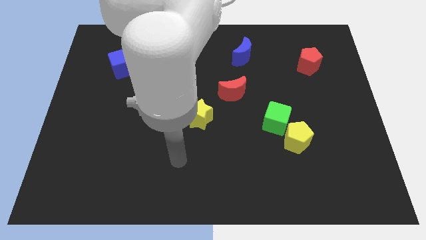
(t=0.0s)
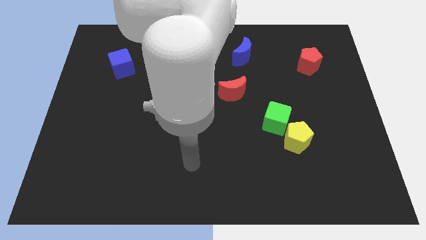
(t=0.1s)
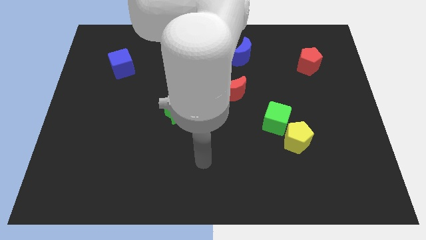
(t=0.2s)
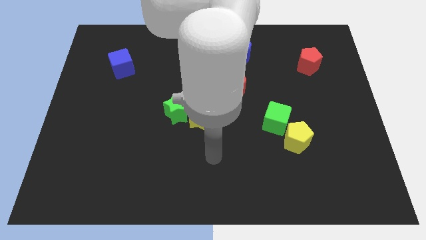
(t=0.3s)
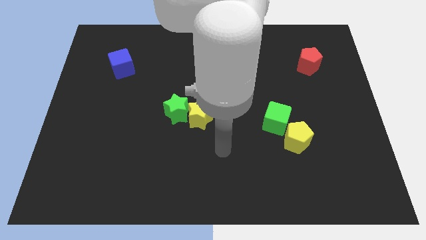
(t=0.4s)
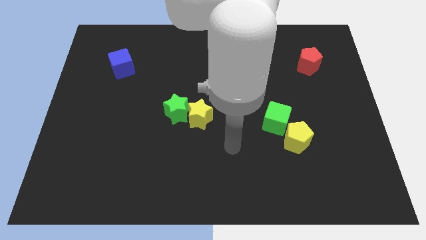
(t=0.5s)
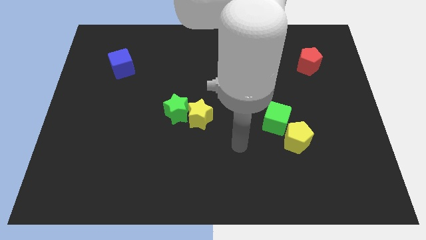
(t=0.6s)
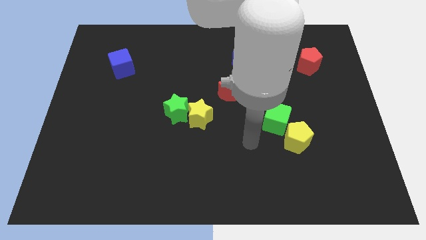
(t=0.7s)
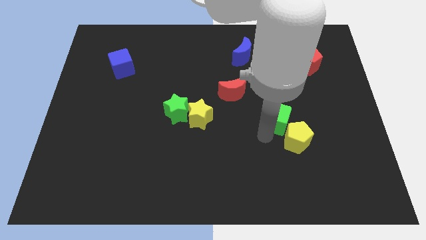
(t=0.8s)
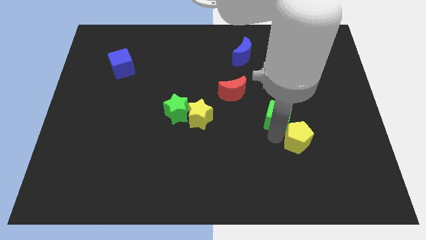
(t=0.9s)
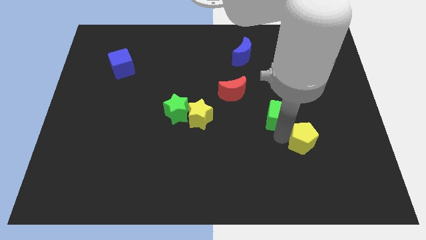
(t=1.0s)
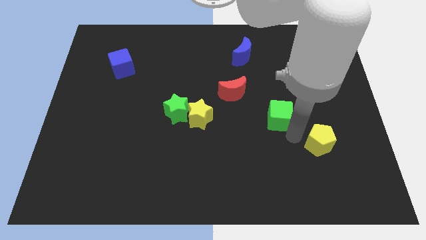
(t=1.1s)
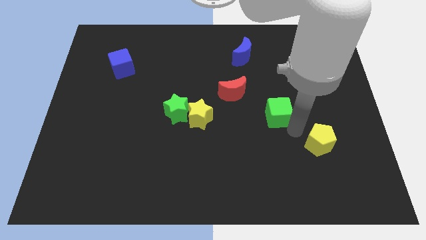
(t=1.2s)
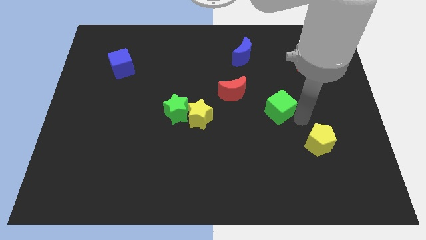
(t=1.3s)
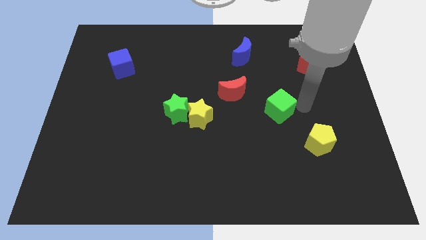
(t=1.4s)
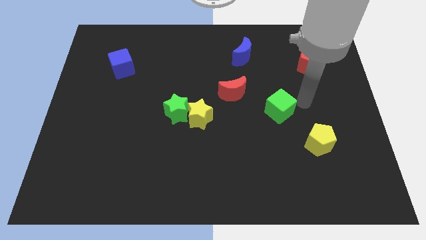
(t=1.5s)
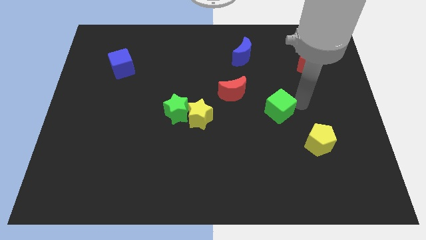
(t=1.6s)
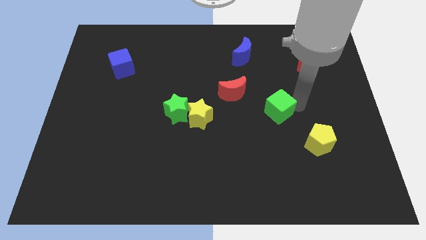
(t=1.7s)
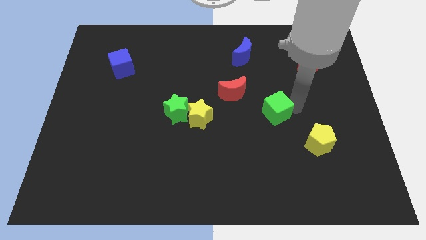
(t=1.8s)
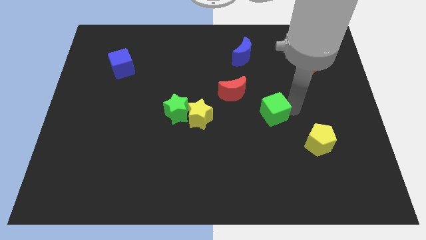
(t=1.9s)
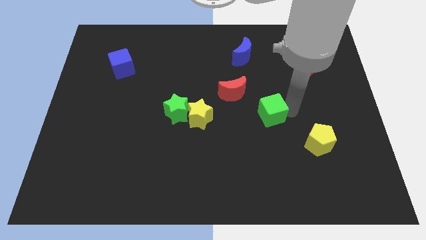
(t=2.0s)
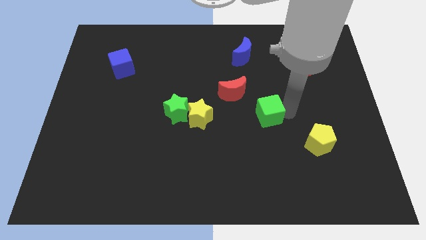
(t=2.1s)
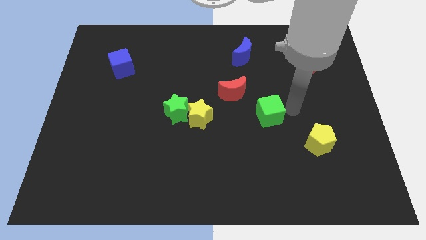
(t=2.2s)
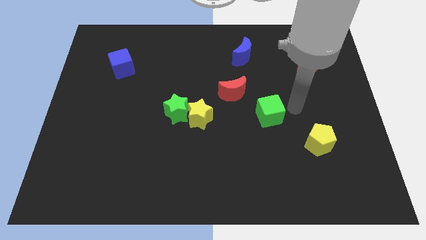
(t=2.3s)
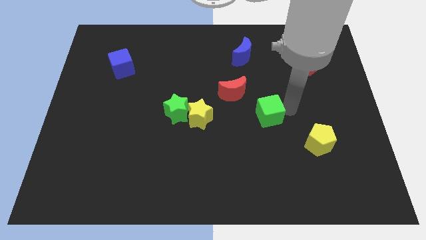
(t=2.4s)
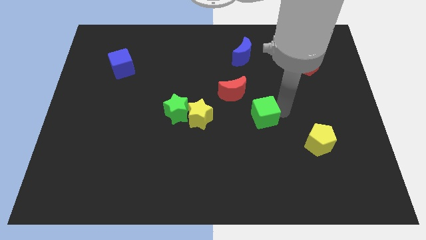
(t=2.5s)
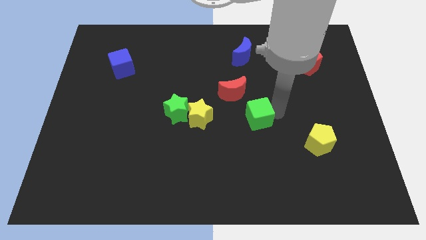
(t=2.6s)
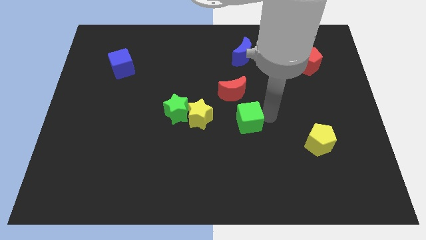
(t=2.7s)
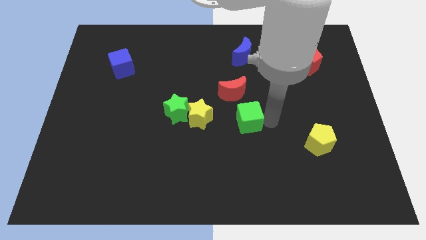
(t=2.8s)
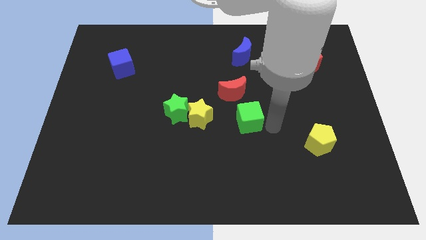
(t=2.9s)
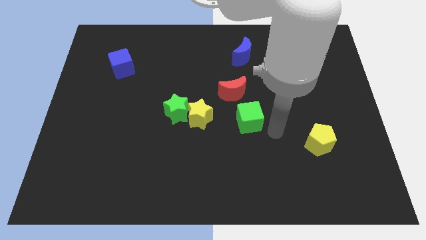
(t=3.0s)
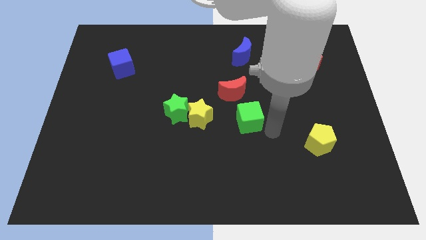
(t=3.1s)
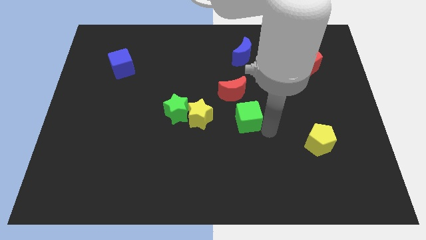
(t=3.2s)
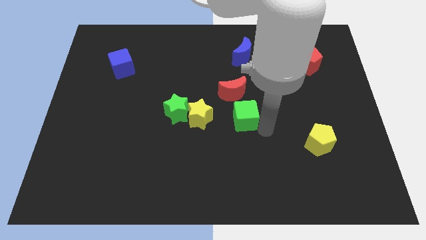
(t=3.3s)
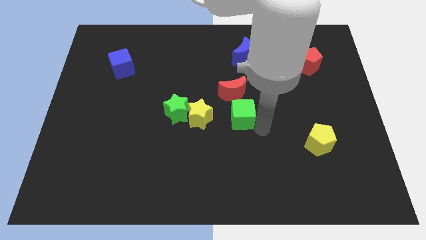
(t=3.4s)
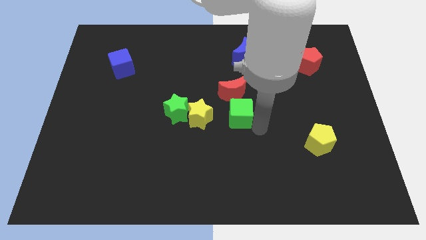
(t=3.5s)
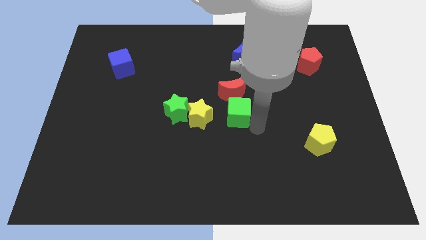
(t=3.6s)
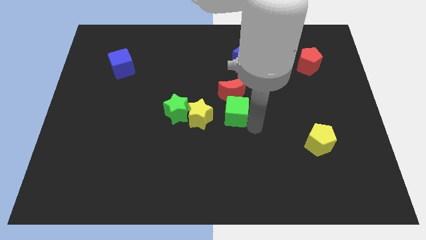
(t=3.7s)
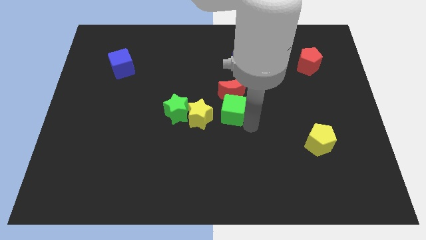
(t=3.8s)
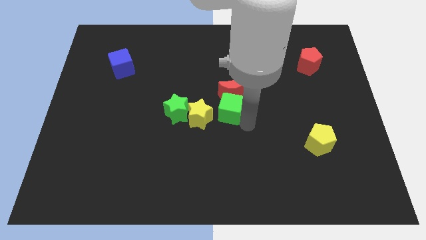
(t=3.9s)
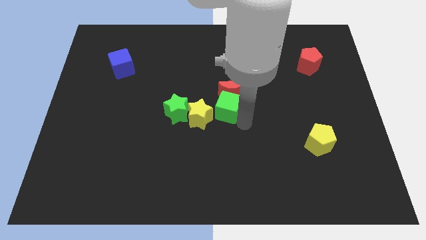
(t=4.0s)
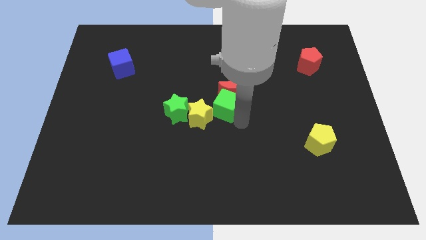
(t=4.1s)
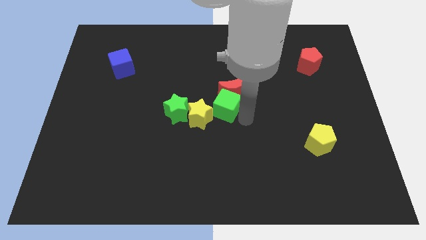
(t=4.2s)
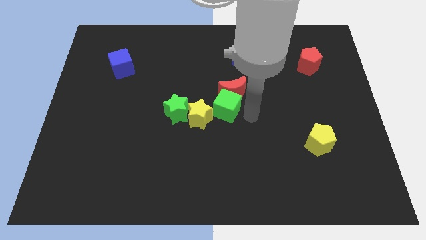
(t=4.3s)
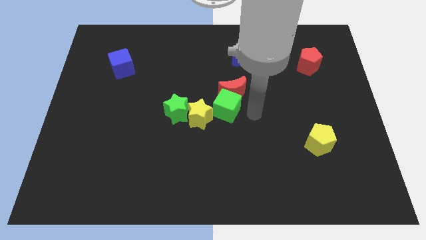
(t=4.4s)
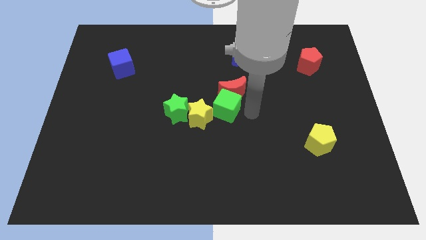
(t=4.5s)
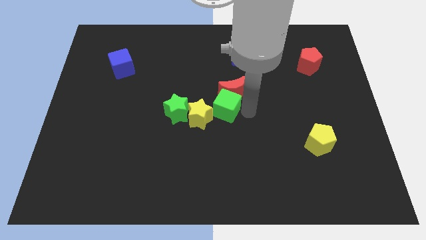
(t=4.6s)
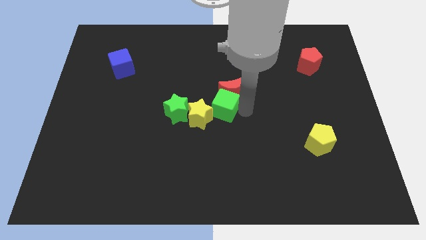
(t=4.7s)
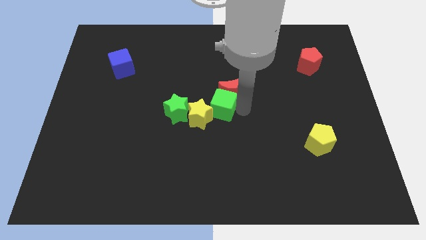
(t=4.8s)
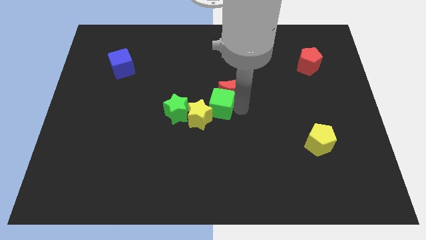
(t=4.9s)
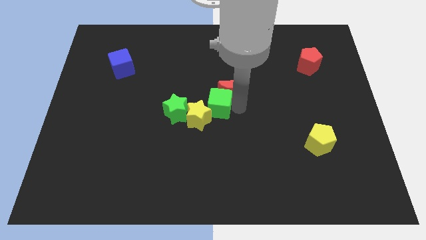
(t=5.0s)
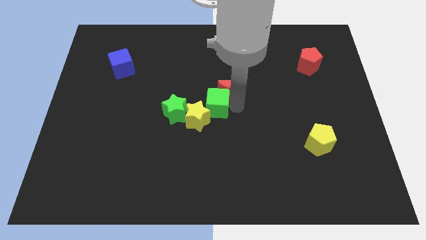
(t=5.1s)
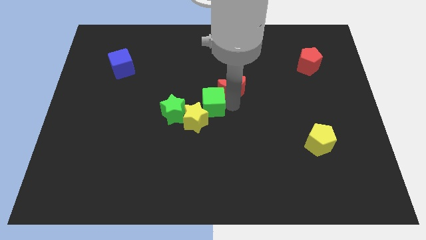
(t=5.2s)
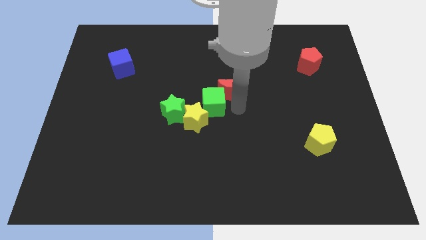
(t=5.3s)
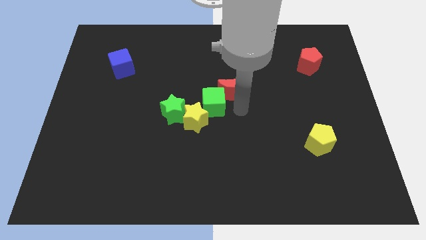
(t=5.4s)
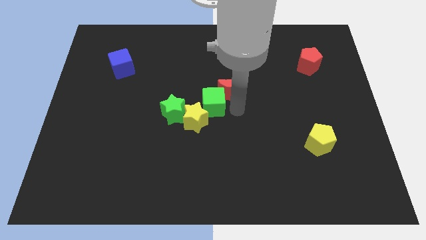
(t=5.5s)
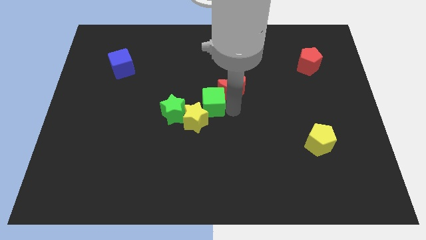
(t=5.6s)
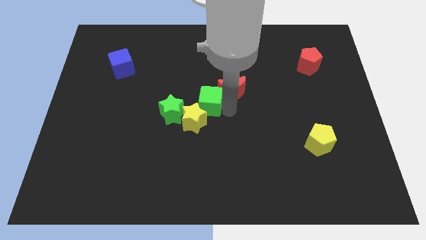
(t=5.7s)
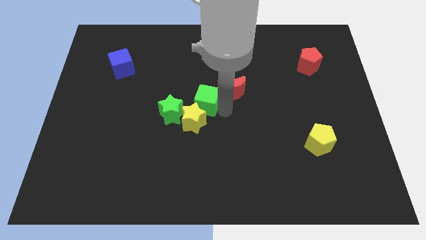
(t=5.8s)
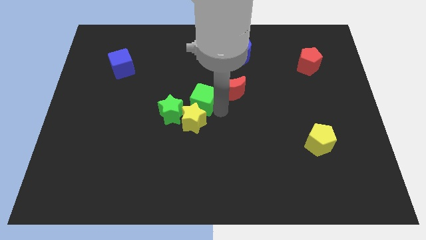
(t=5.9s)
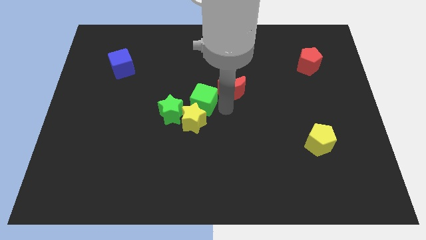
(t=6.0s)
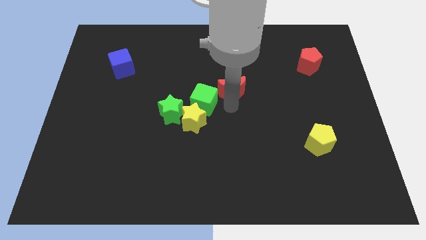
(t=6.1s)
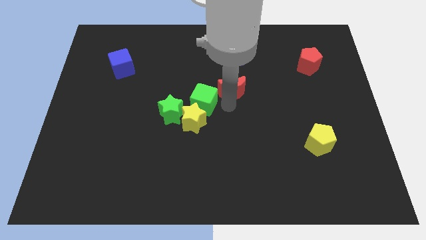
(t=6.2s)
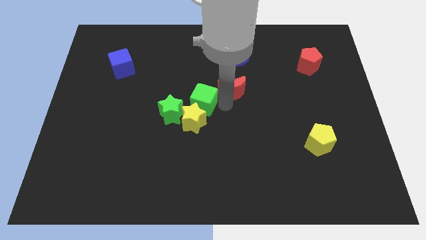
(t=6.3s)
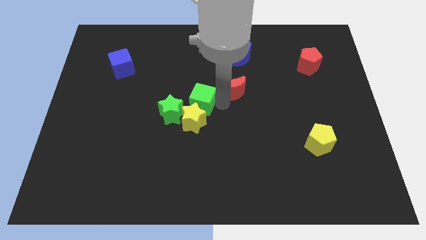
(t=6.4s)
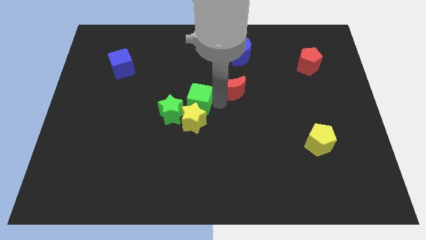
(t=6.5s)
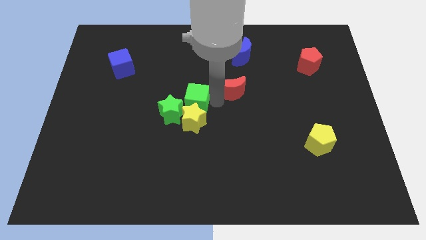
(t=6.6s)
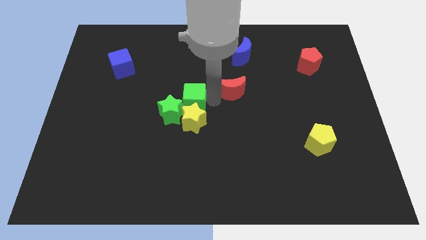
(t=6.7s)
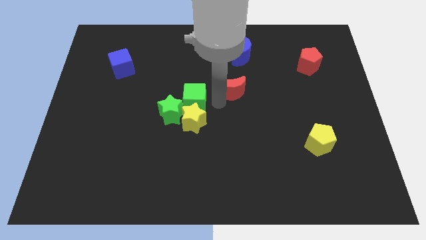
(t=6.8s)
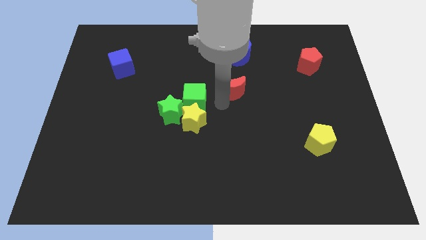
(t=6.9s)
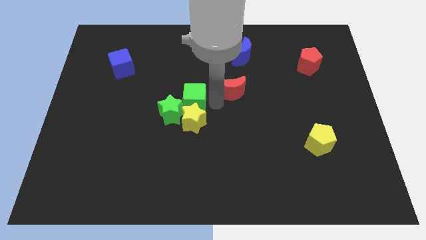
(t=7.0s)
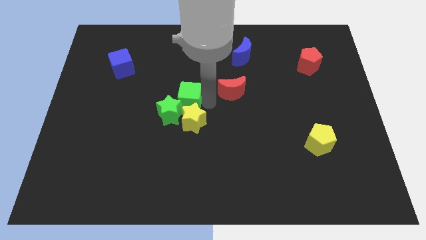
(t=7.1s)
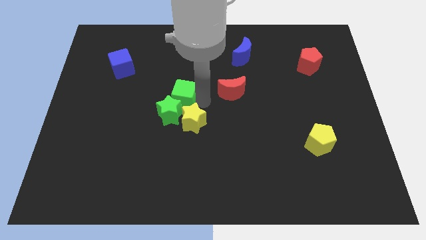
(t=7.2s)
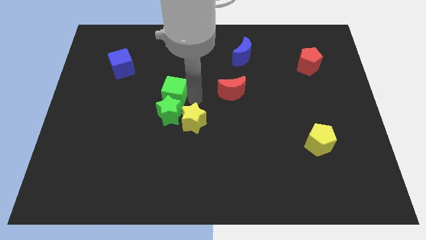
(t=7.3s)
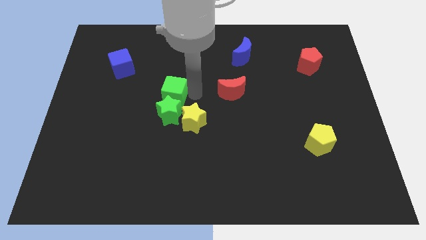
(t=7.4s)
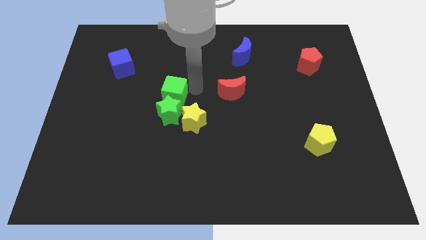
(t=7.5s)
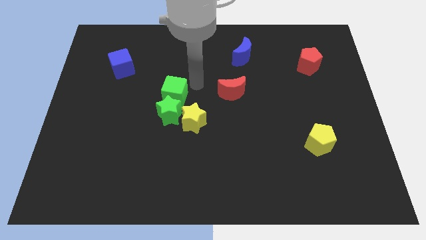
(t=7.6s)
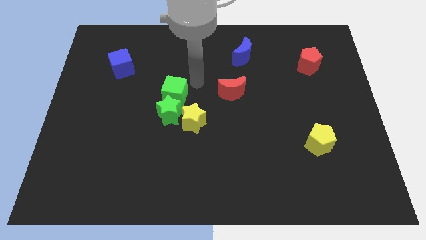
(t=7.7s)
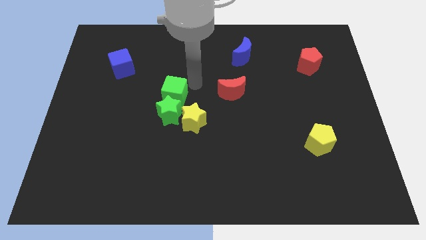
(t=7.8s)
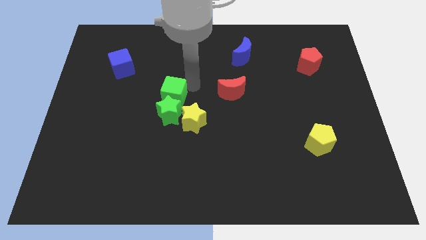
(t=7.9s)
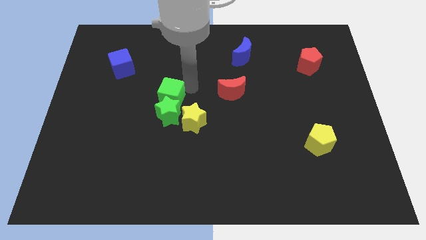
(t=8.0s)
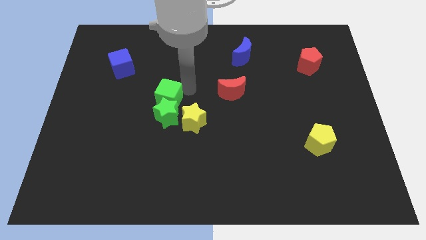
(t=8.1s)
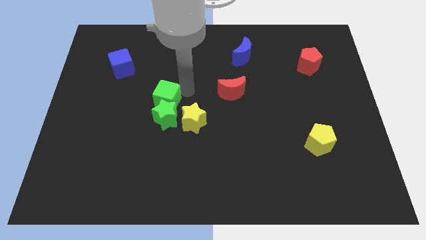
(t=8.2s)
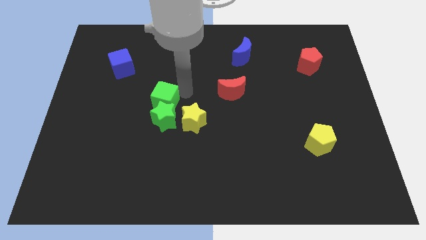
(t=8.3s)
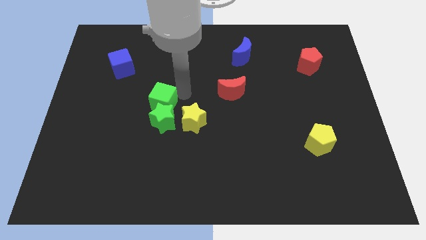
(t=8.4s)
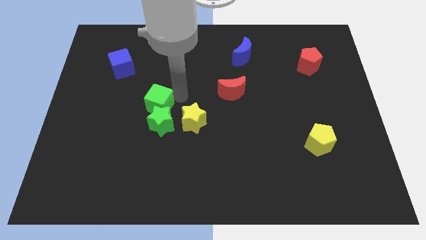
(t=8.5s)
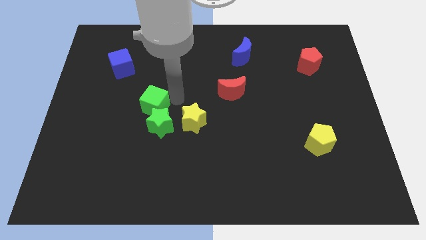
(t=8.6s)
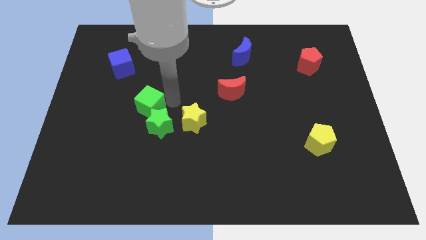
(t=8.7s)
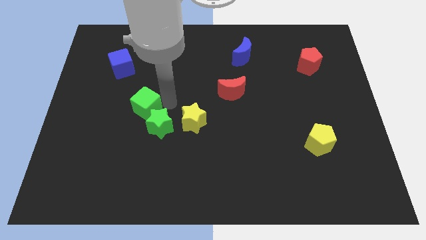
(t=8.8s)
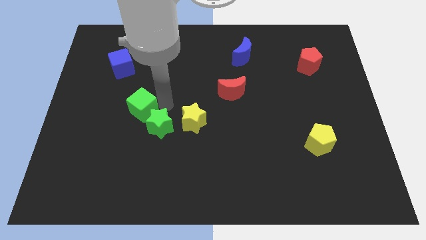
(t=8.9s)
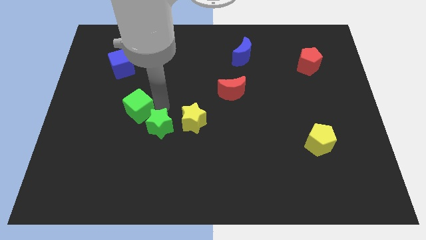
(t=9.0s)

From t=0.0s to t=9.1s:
push the green cube to the left of the green star
